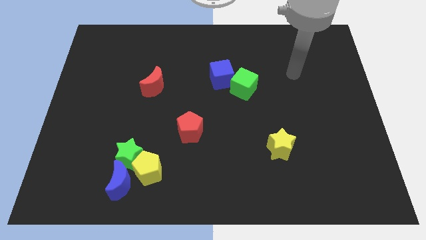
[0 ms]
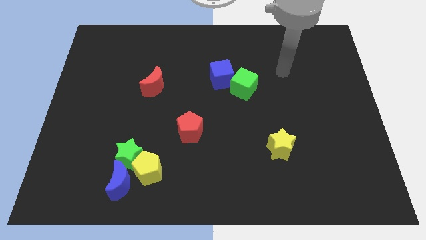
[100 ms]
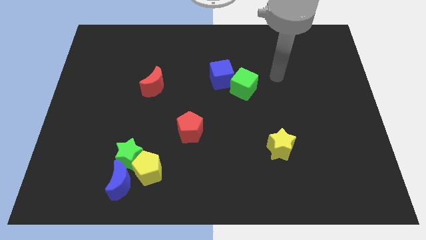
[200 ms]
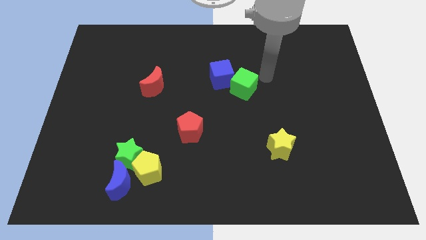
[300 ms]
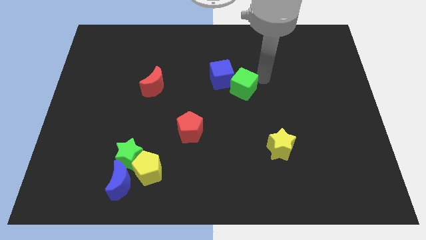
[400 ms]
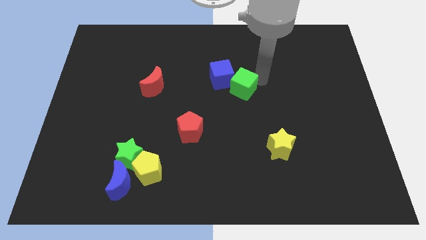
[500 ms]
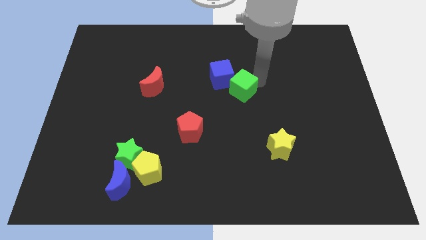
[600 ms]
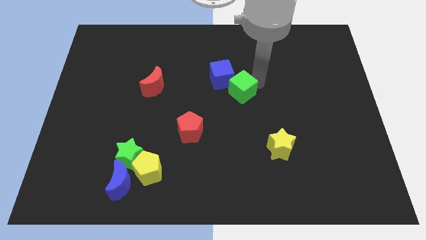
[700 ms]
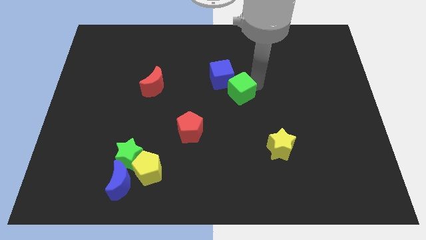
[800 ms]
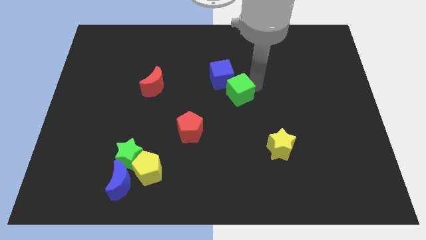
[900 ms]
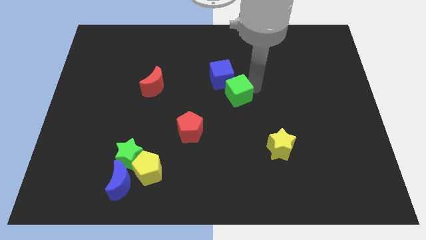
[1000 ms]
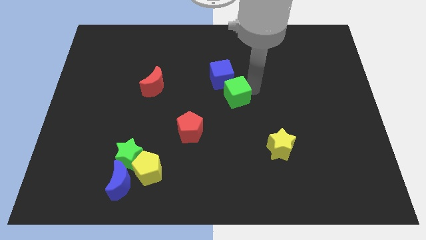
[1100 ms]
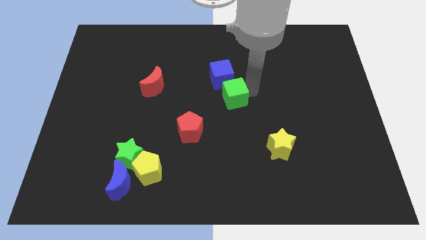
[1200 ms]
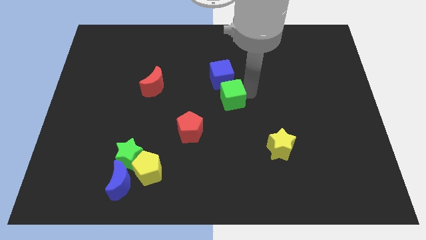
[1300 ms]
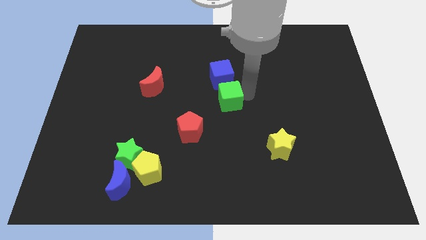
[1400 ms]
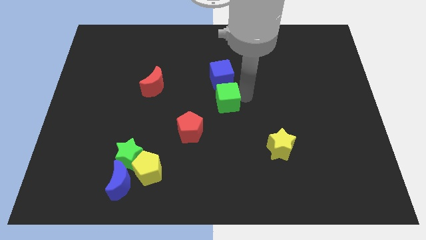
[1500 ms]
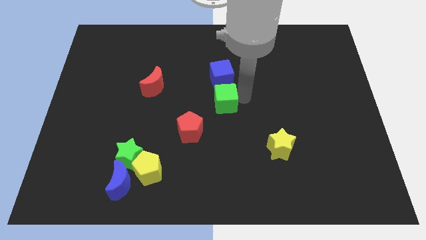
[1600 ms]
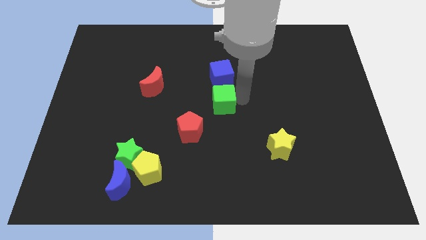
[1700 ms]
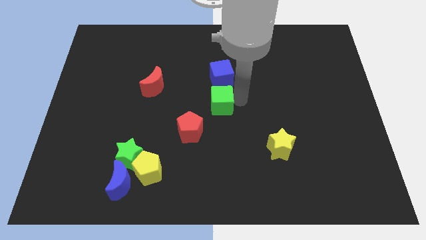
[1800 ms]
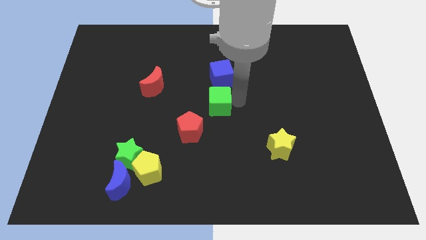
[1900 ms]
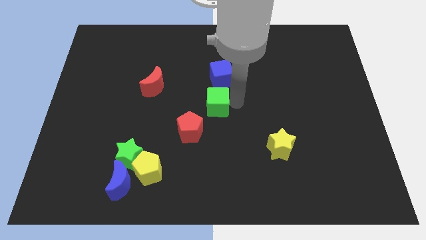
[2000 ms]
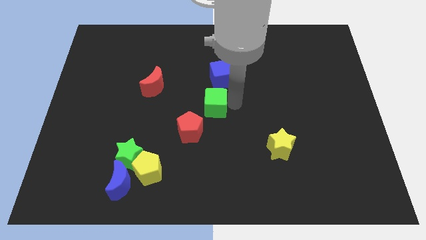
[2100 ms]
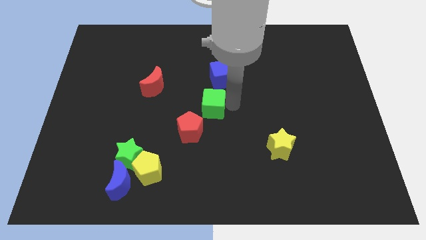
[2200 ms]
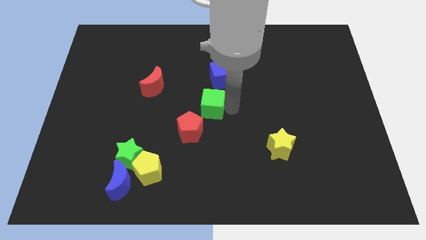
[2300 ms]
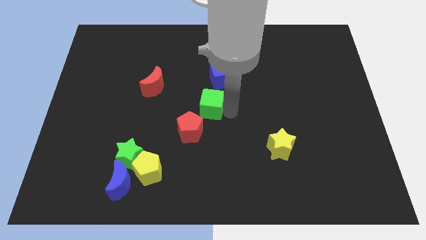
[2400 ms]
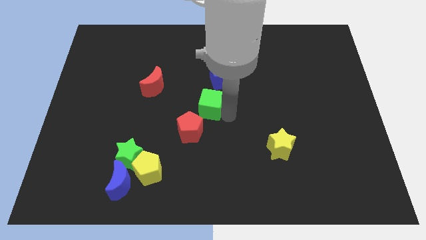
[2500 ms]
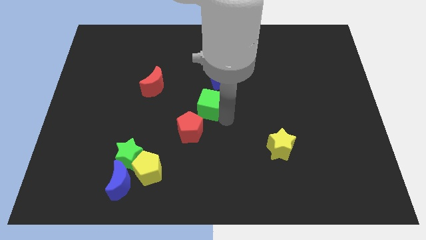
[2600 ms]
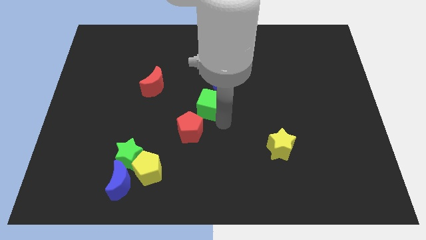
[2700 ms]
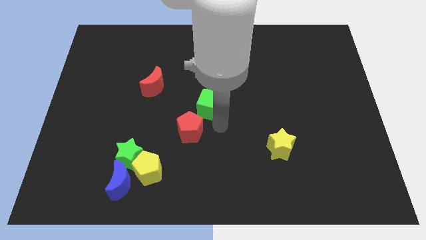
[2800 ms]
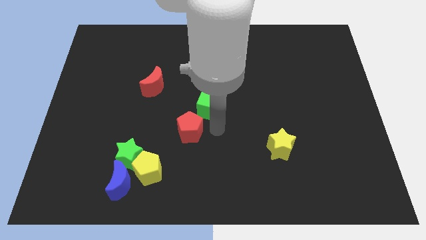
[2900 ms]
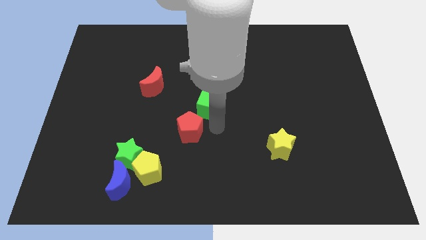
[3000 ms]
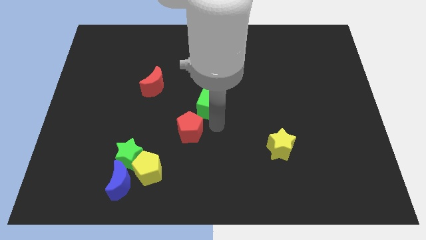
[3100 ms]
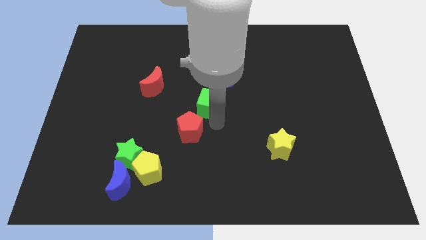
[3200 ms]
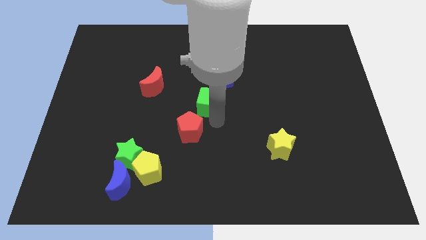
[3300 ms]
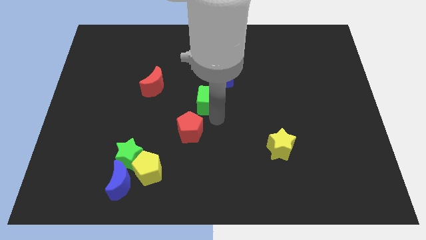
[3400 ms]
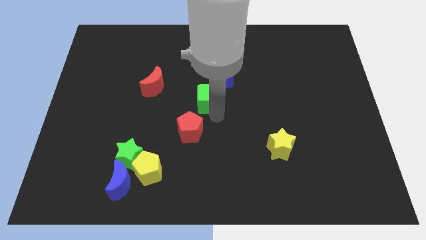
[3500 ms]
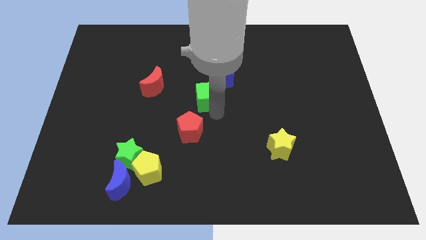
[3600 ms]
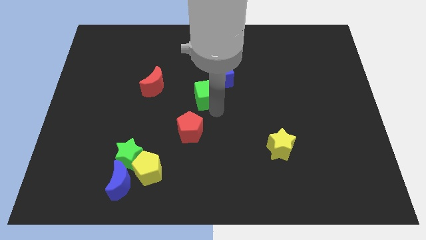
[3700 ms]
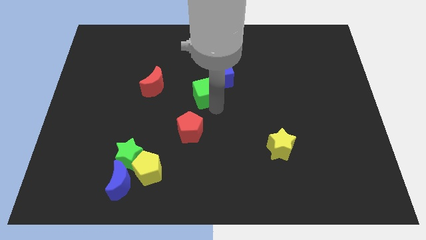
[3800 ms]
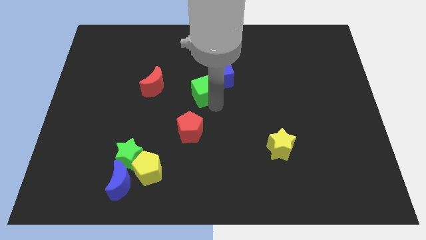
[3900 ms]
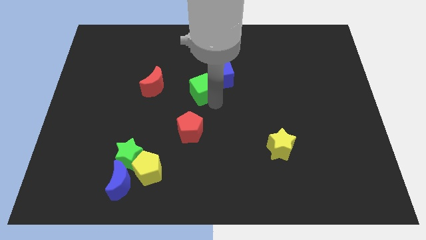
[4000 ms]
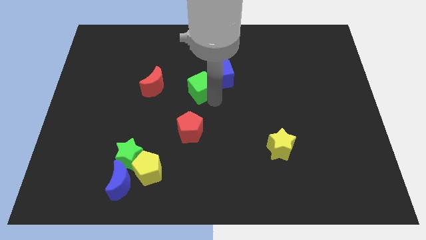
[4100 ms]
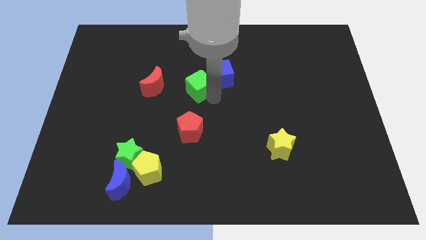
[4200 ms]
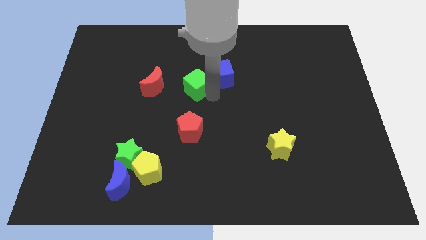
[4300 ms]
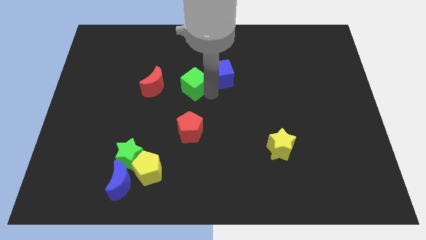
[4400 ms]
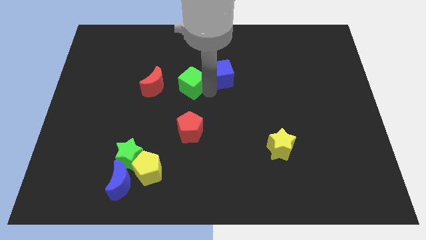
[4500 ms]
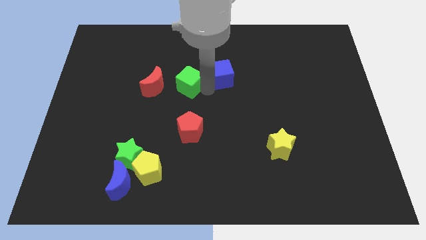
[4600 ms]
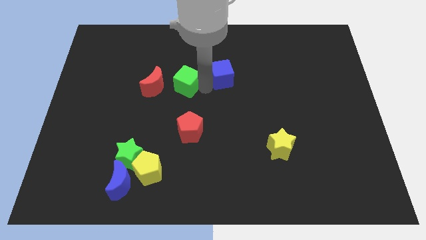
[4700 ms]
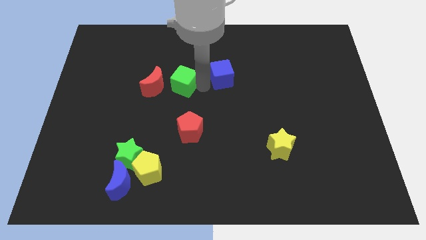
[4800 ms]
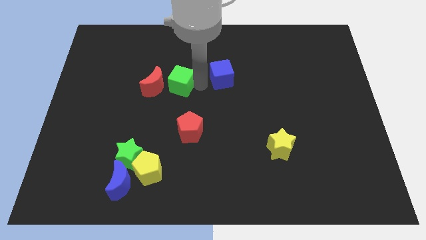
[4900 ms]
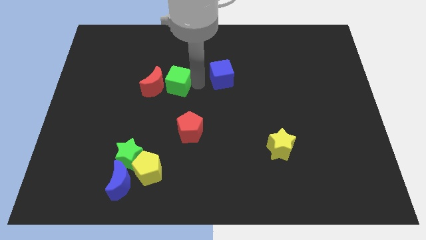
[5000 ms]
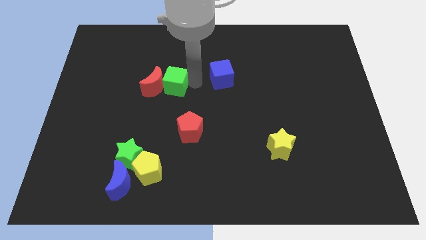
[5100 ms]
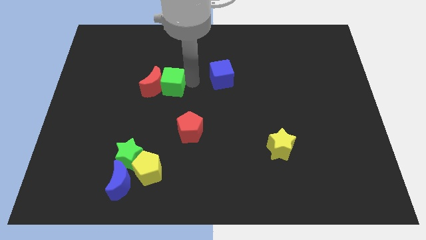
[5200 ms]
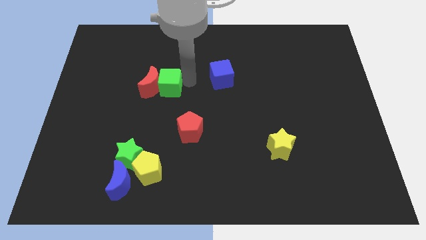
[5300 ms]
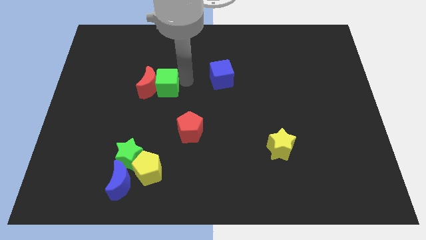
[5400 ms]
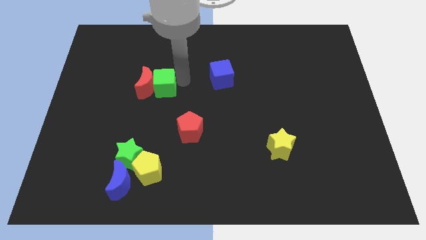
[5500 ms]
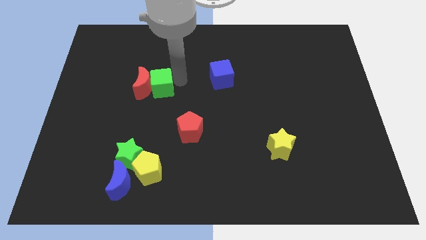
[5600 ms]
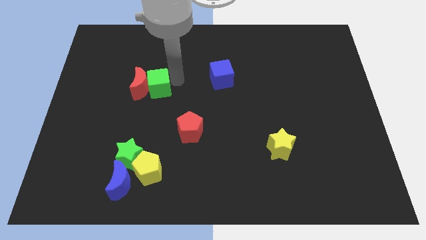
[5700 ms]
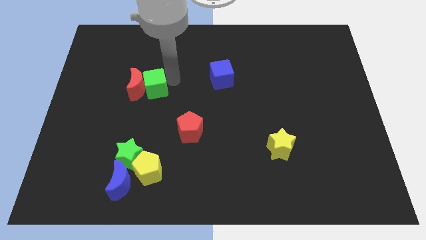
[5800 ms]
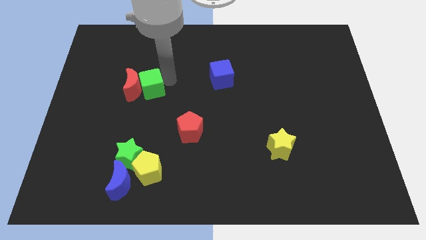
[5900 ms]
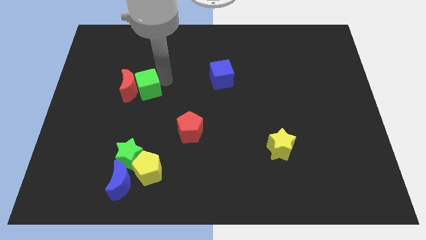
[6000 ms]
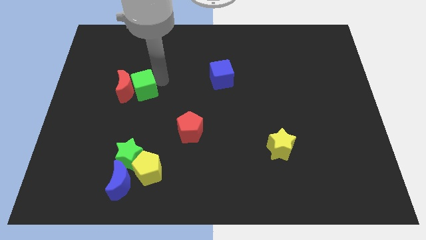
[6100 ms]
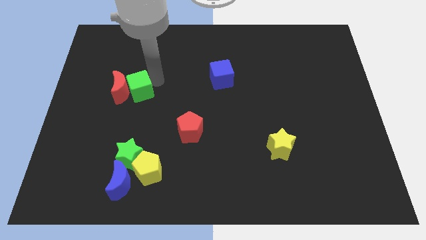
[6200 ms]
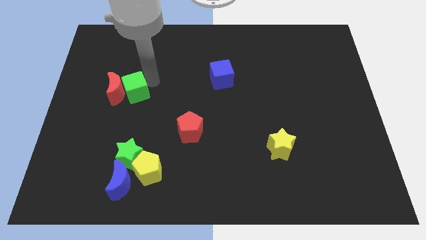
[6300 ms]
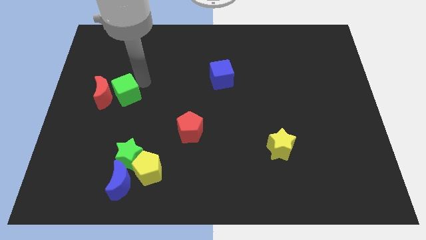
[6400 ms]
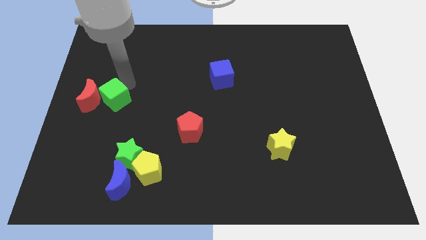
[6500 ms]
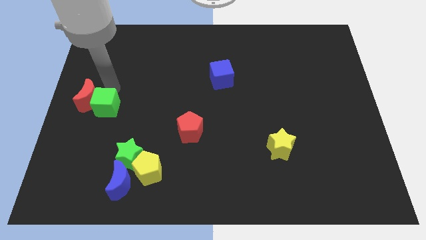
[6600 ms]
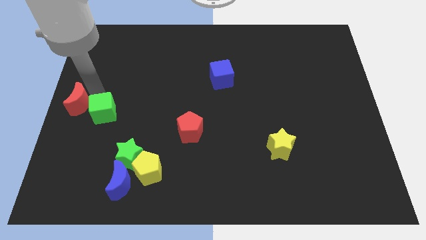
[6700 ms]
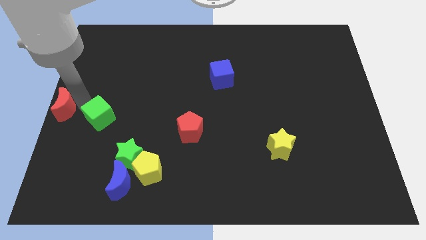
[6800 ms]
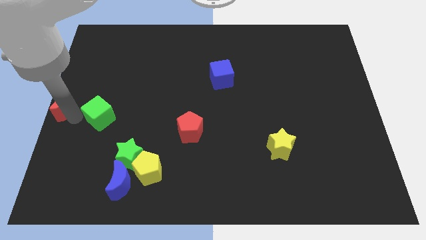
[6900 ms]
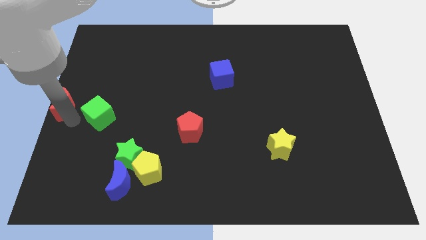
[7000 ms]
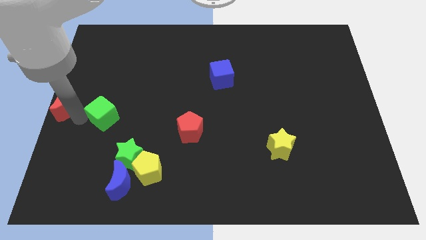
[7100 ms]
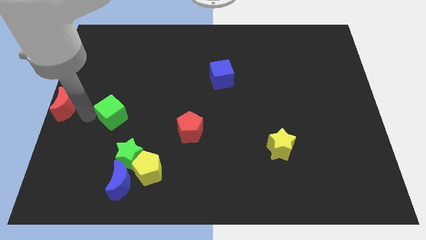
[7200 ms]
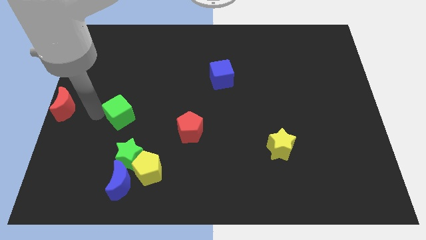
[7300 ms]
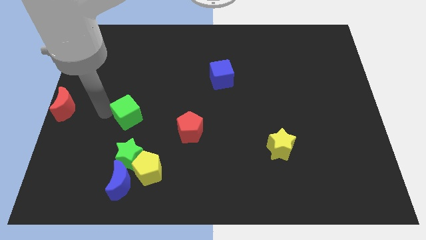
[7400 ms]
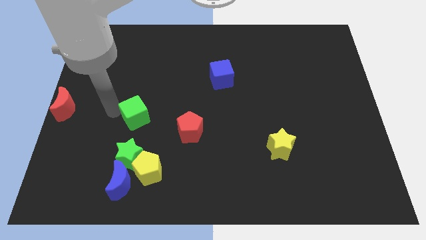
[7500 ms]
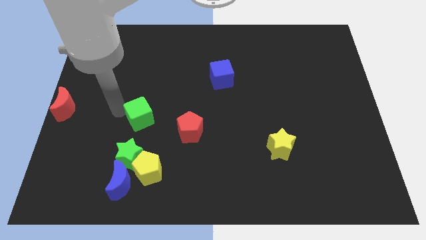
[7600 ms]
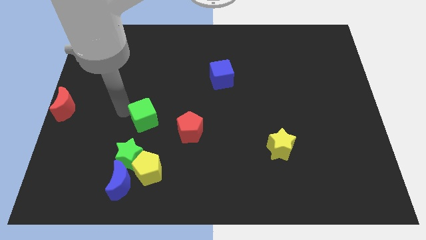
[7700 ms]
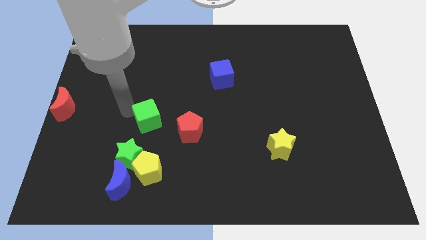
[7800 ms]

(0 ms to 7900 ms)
push the green cube to the top left of the red pentagon
